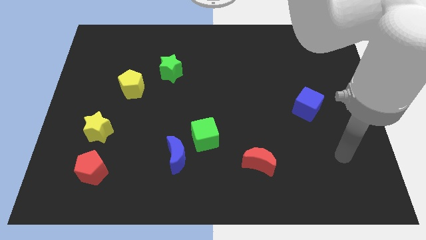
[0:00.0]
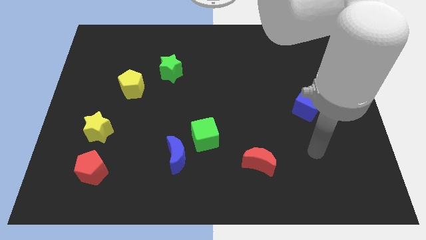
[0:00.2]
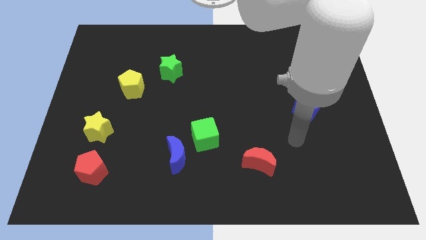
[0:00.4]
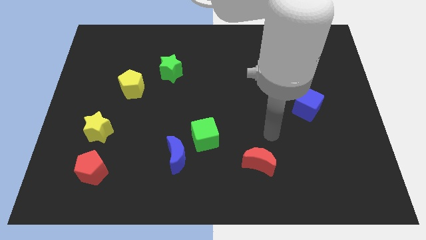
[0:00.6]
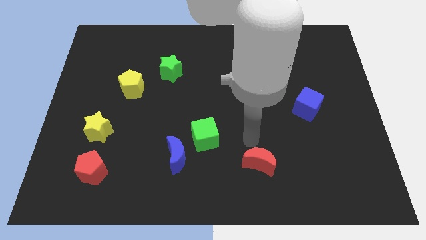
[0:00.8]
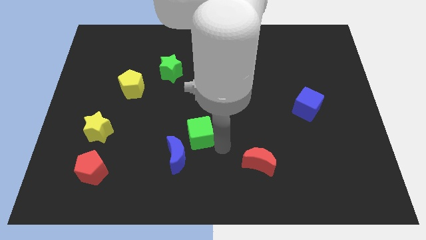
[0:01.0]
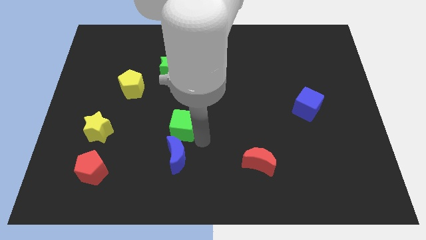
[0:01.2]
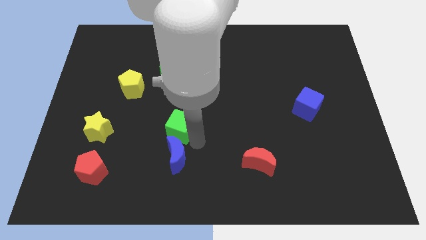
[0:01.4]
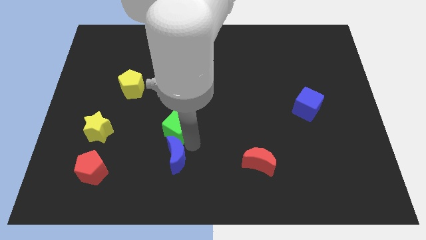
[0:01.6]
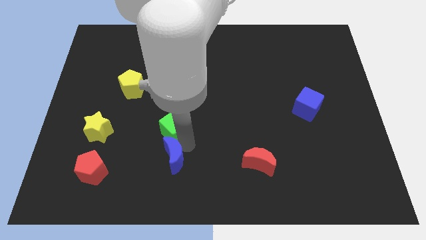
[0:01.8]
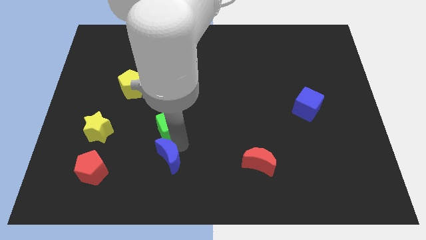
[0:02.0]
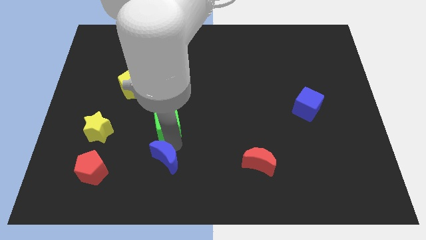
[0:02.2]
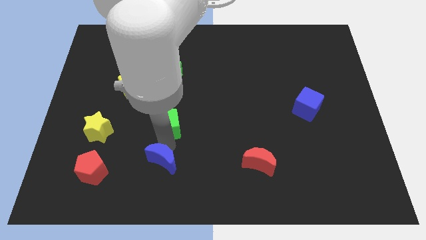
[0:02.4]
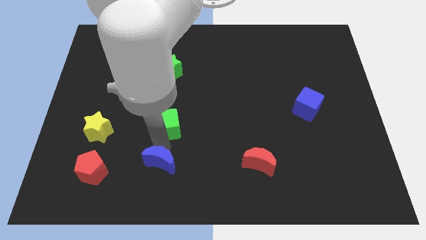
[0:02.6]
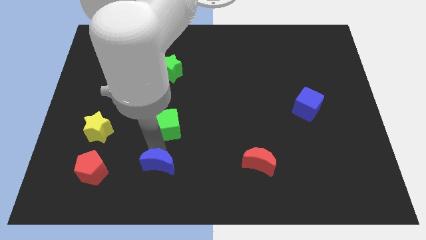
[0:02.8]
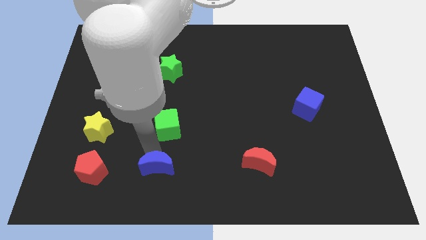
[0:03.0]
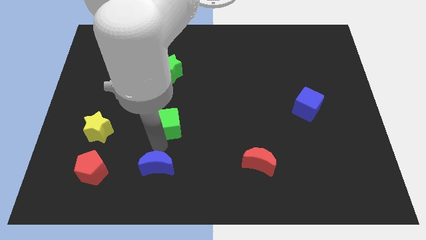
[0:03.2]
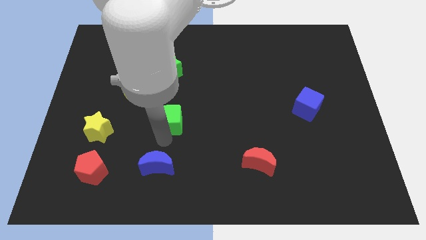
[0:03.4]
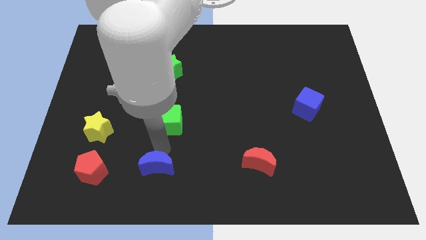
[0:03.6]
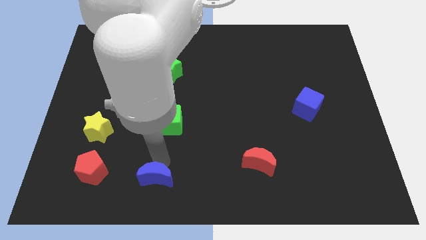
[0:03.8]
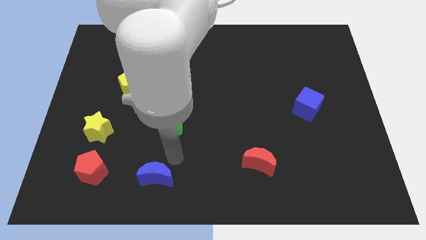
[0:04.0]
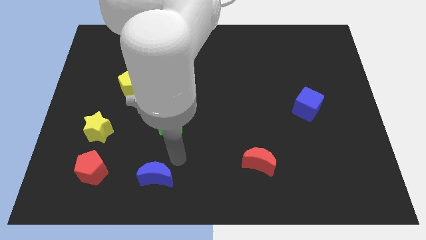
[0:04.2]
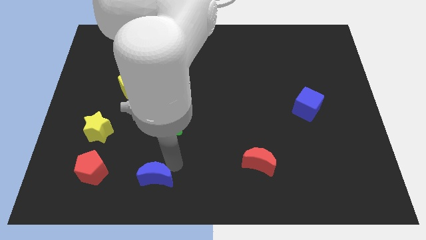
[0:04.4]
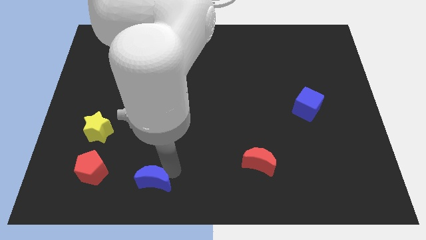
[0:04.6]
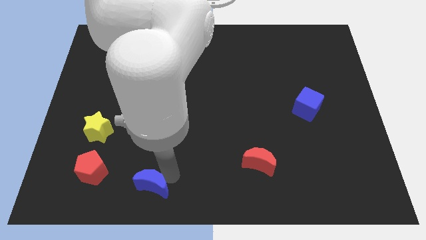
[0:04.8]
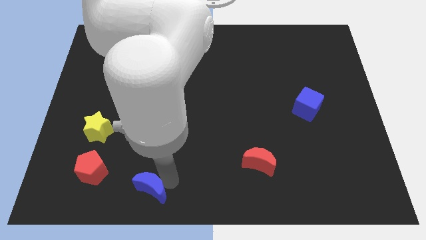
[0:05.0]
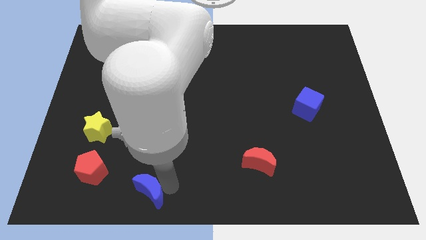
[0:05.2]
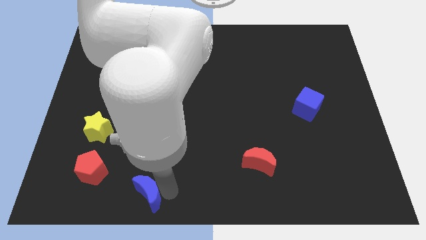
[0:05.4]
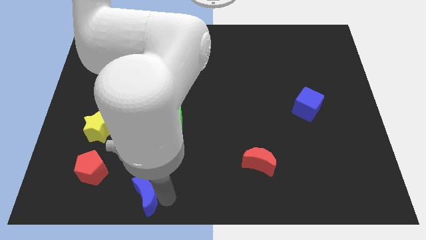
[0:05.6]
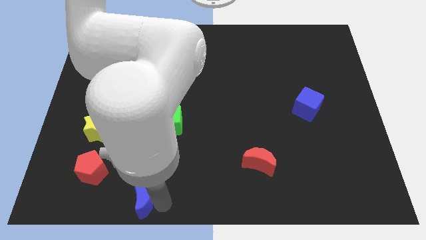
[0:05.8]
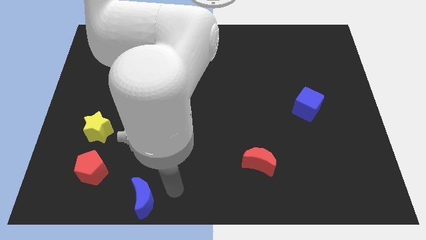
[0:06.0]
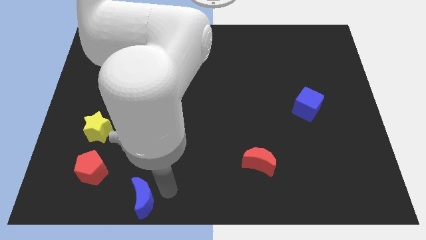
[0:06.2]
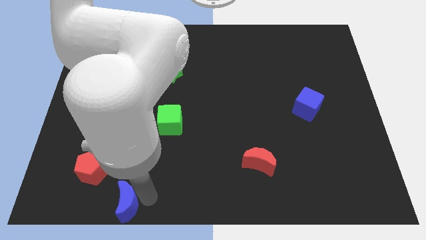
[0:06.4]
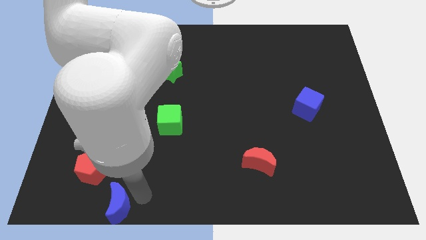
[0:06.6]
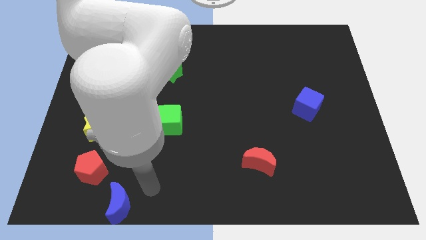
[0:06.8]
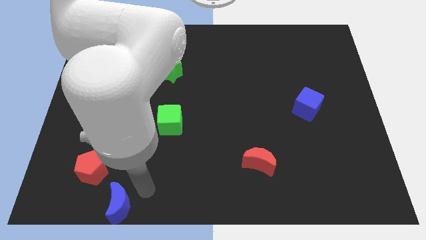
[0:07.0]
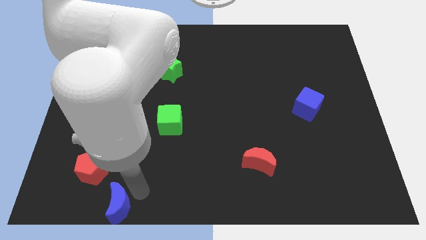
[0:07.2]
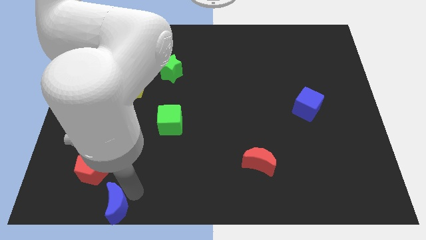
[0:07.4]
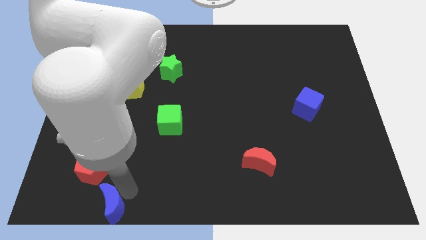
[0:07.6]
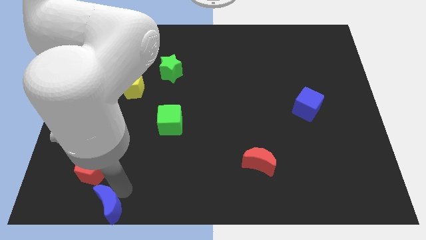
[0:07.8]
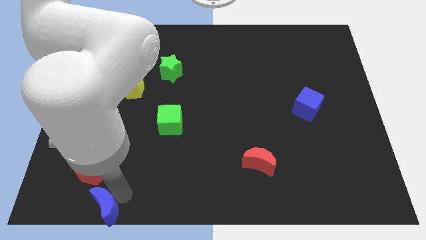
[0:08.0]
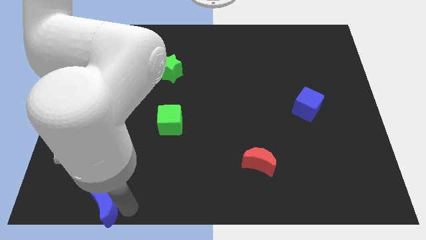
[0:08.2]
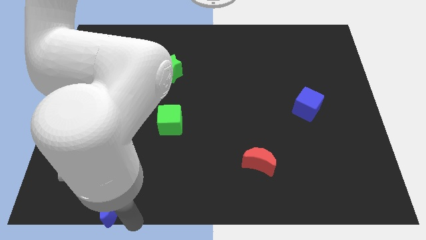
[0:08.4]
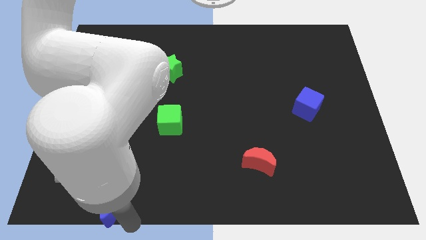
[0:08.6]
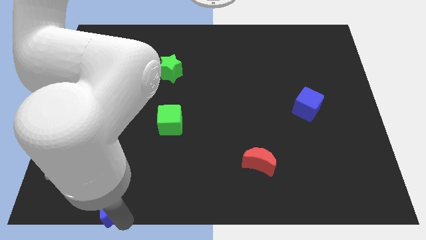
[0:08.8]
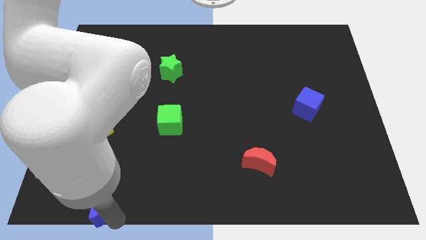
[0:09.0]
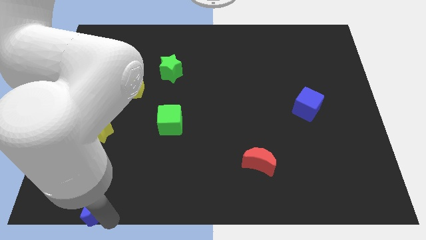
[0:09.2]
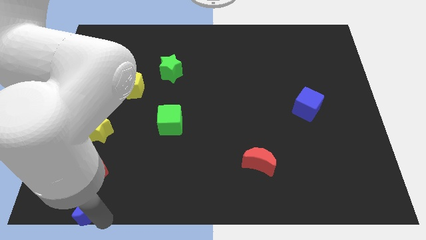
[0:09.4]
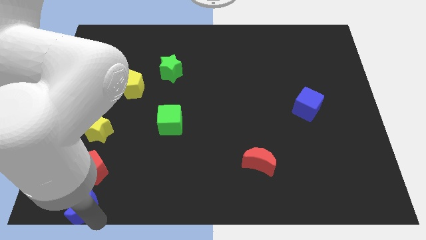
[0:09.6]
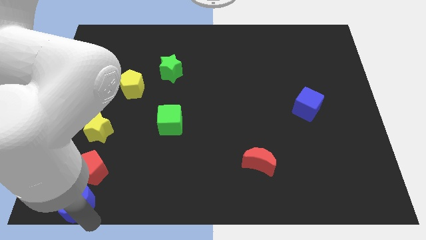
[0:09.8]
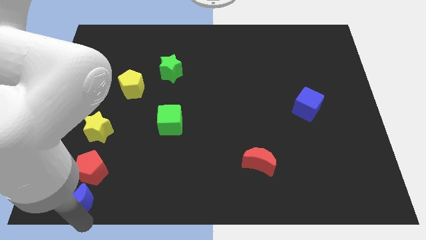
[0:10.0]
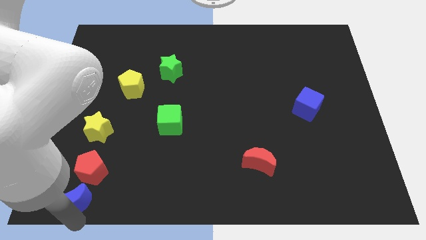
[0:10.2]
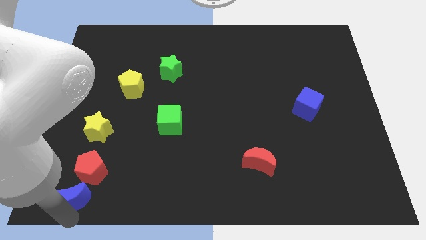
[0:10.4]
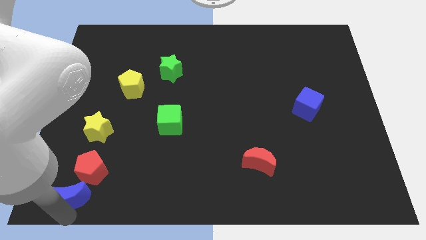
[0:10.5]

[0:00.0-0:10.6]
put the blue moon to the bottom side of the yellow star

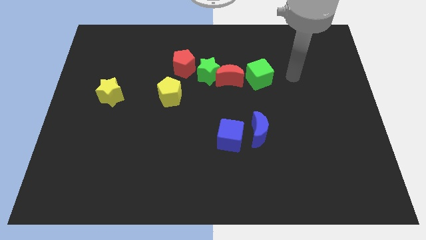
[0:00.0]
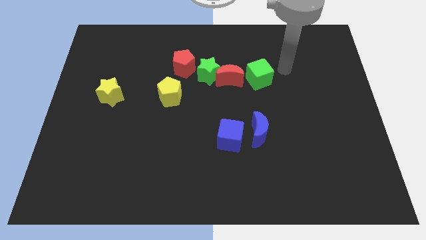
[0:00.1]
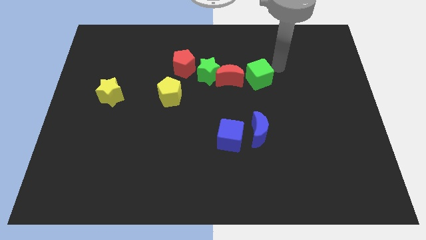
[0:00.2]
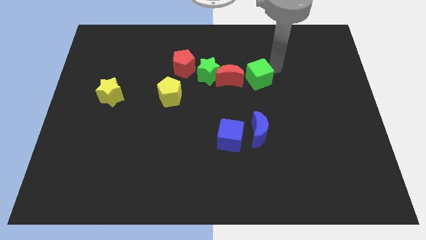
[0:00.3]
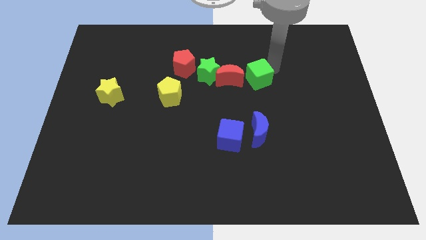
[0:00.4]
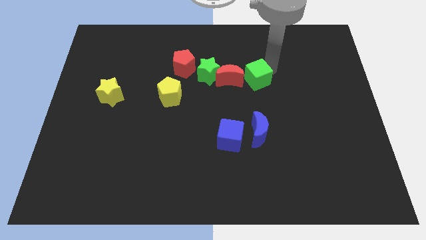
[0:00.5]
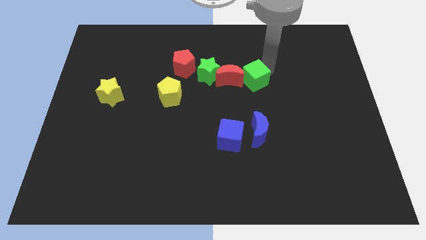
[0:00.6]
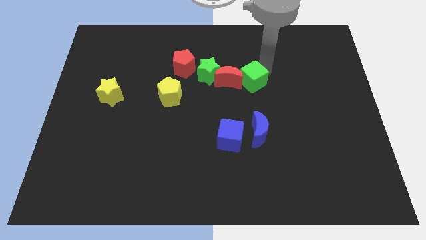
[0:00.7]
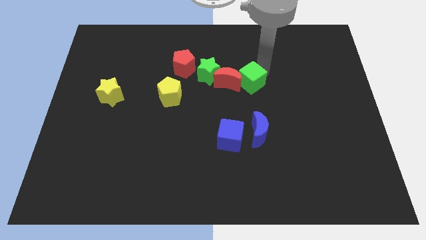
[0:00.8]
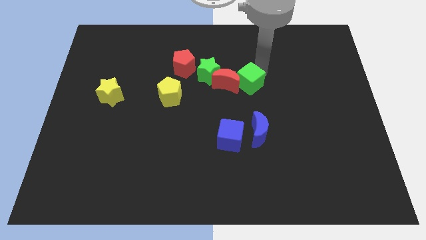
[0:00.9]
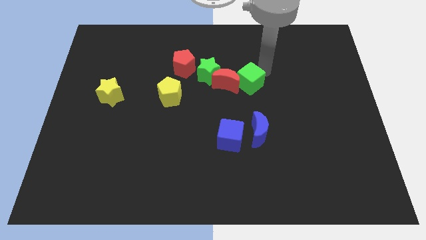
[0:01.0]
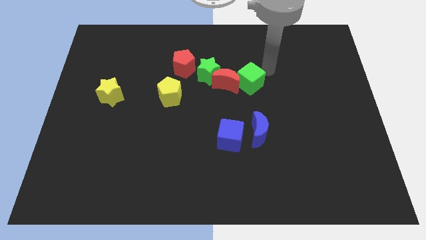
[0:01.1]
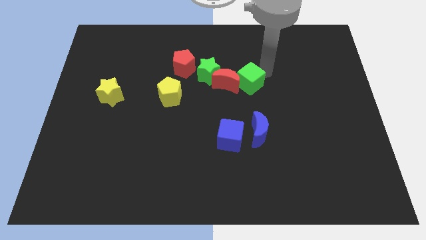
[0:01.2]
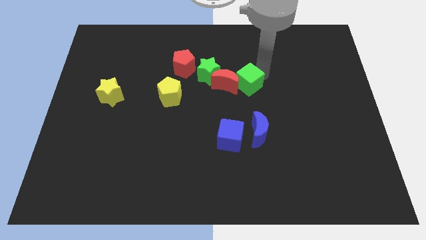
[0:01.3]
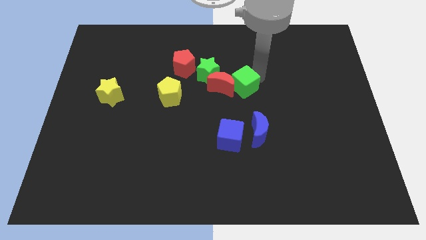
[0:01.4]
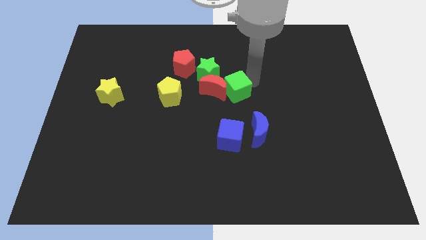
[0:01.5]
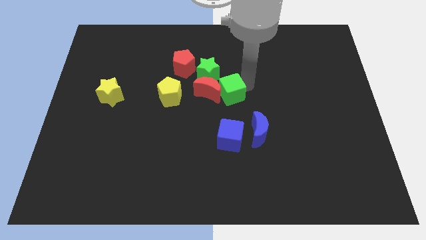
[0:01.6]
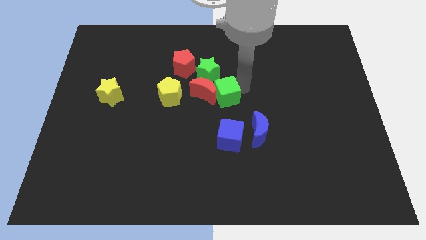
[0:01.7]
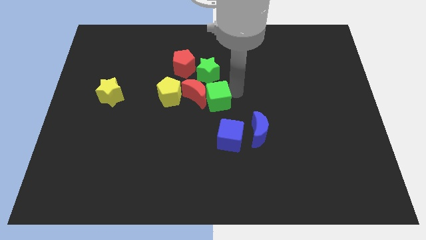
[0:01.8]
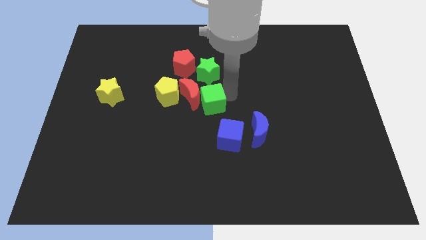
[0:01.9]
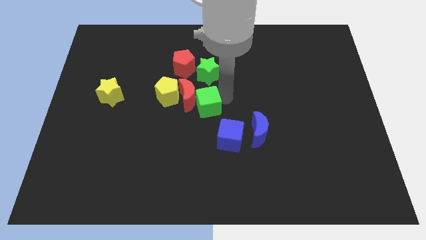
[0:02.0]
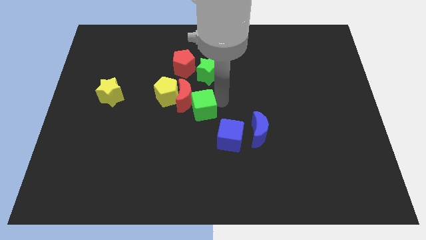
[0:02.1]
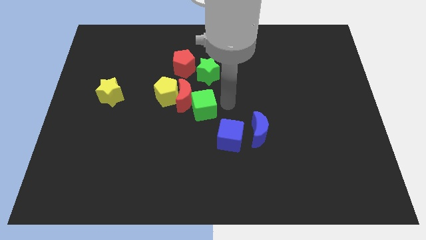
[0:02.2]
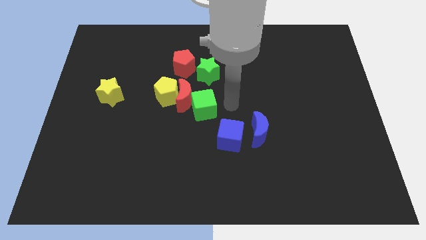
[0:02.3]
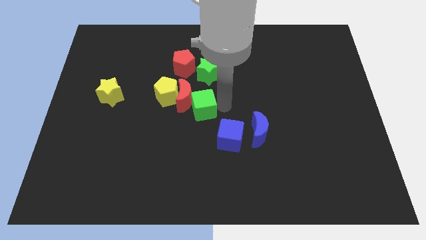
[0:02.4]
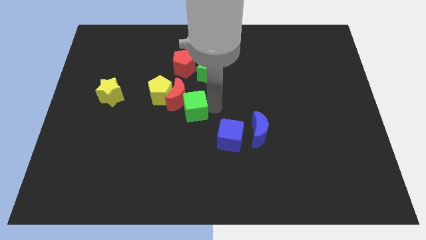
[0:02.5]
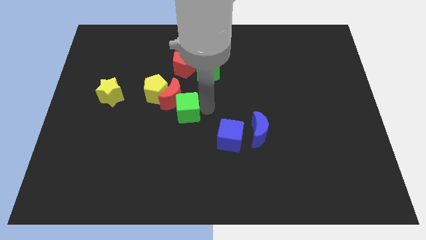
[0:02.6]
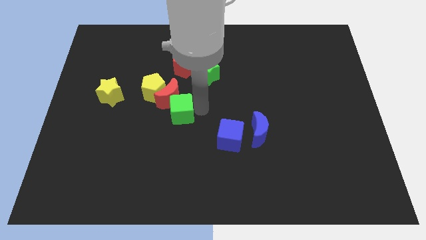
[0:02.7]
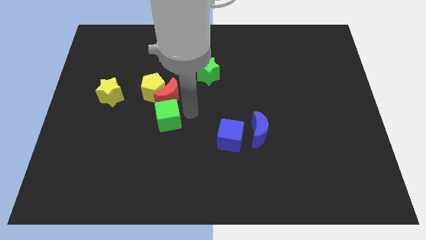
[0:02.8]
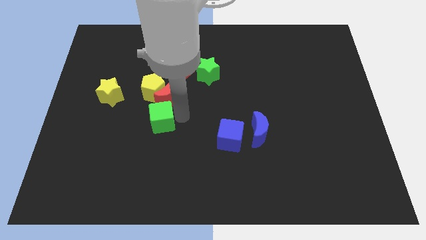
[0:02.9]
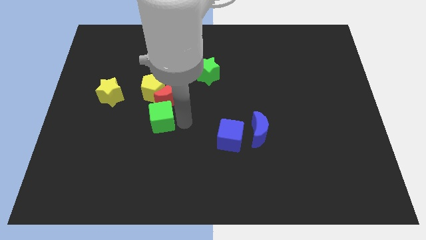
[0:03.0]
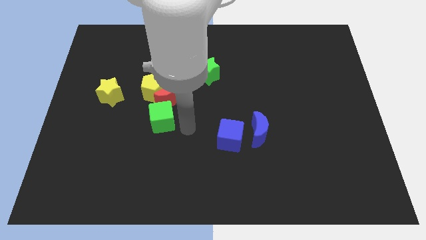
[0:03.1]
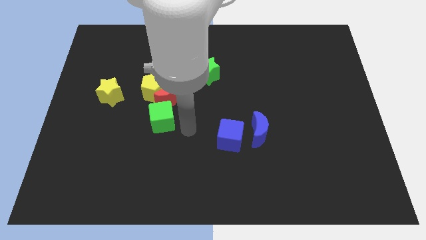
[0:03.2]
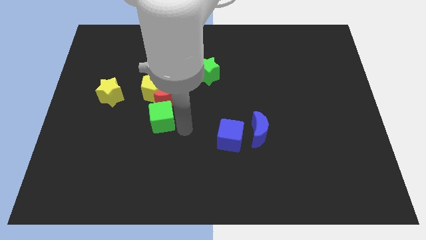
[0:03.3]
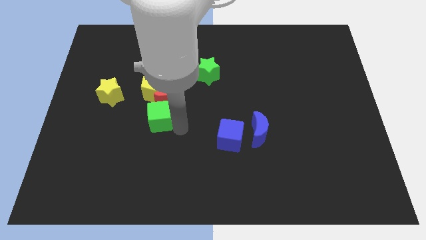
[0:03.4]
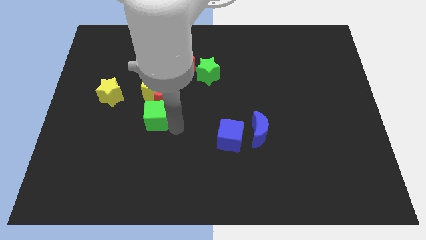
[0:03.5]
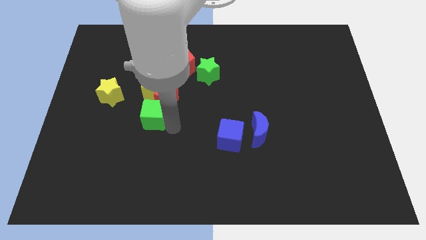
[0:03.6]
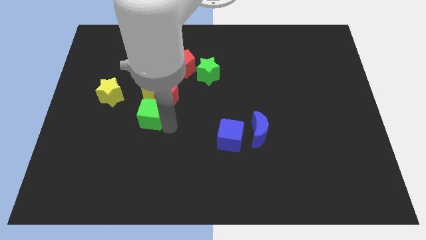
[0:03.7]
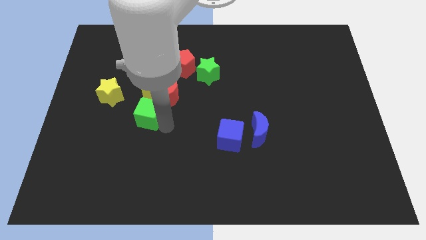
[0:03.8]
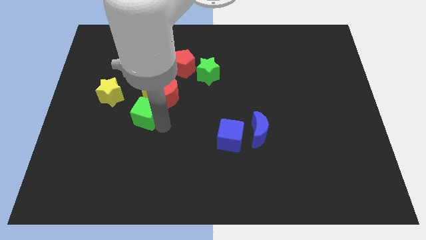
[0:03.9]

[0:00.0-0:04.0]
slide the green cube to the bottom left of the yellow pentagon
